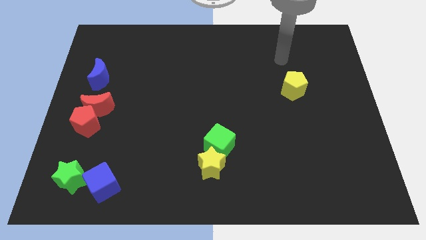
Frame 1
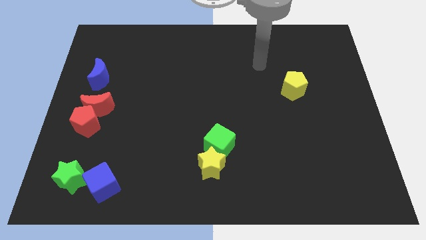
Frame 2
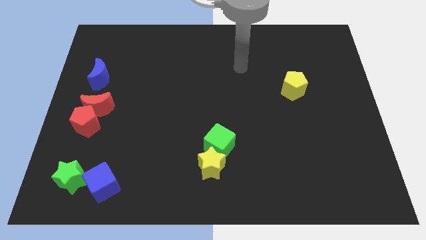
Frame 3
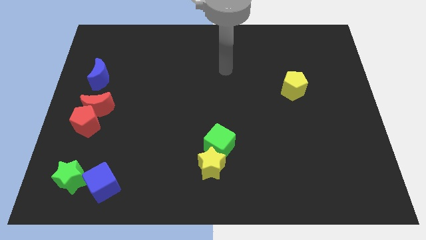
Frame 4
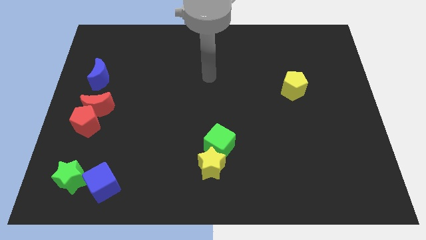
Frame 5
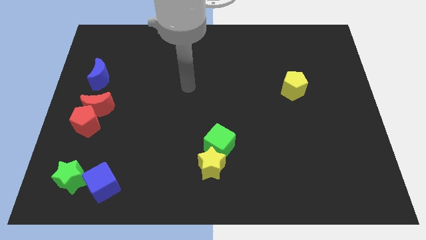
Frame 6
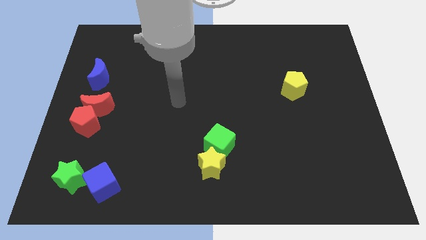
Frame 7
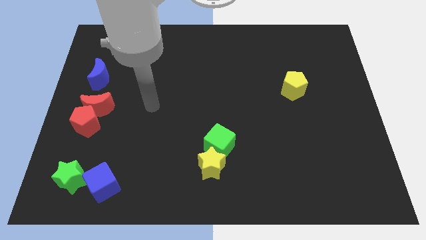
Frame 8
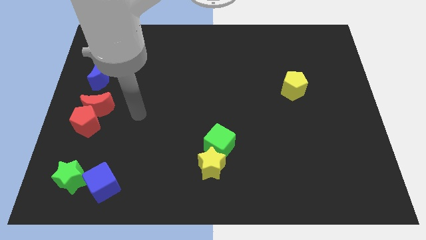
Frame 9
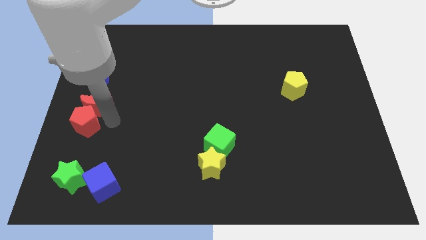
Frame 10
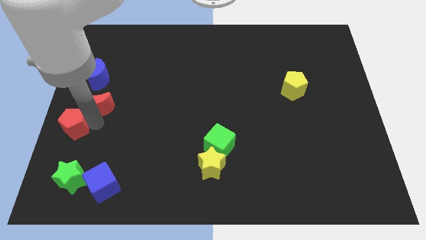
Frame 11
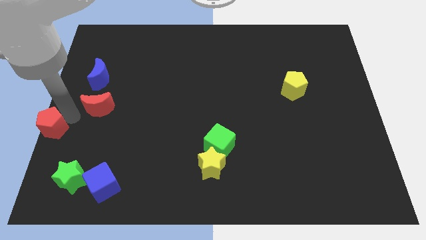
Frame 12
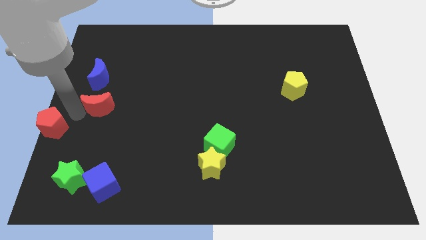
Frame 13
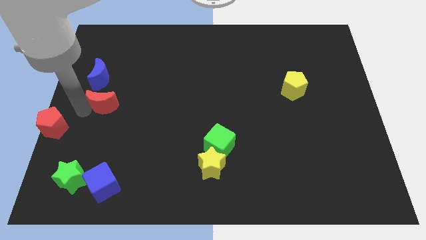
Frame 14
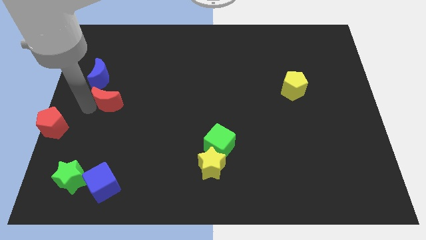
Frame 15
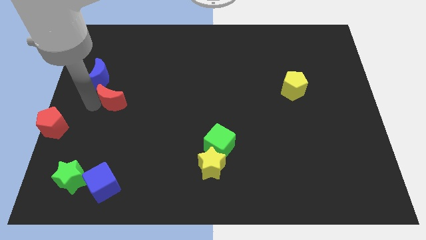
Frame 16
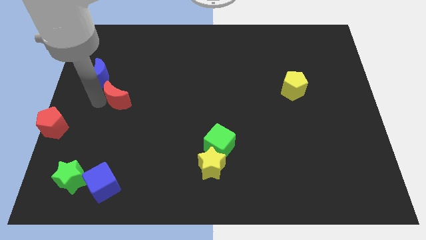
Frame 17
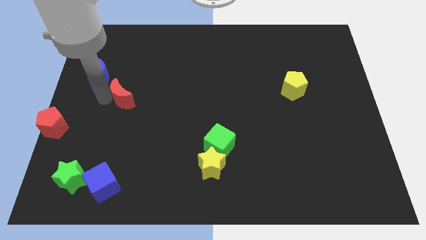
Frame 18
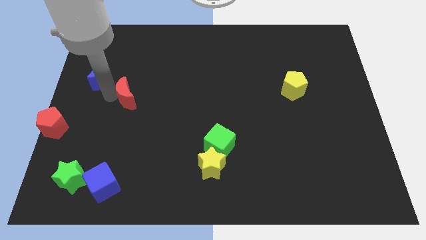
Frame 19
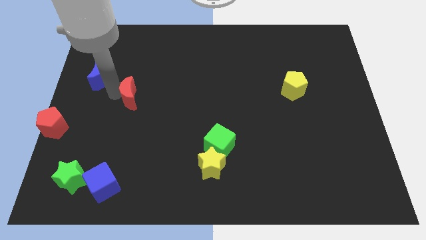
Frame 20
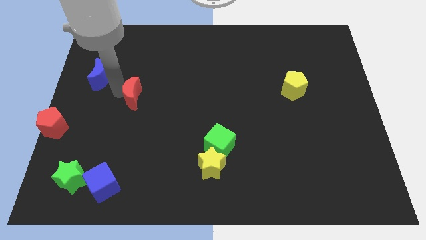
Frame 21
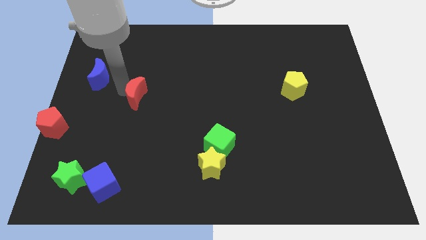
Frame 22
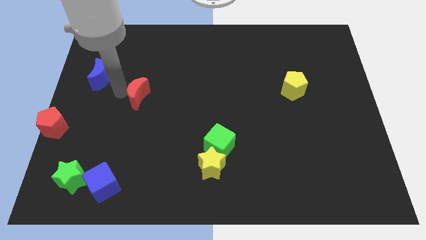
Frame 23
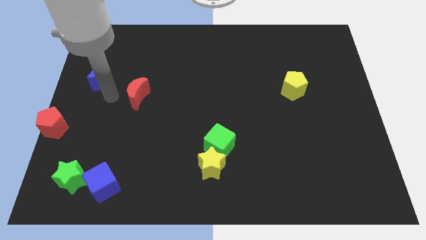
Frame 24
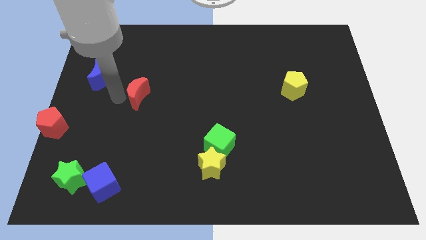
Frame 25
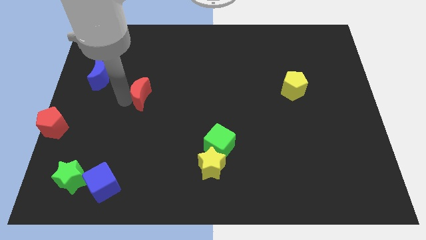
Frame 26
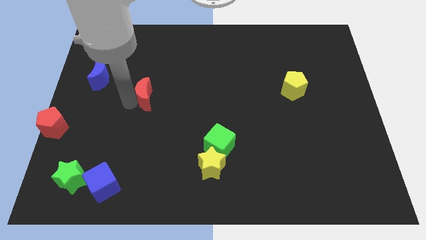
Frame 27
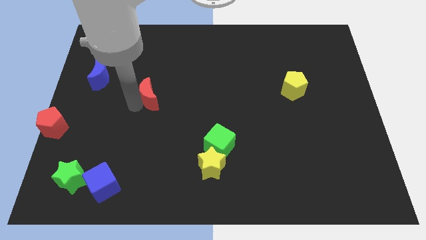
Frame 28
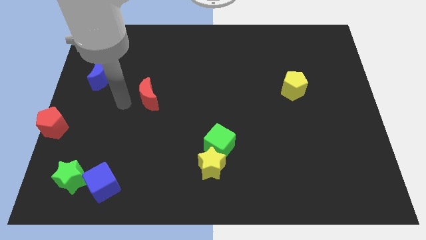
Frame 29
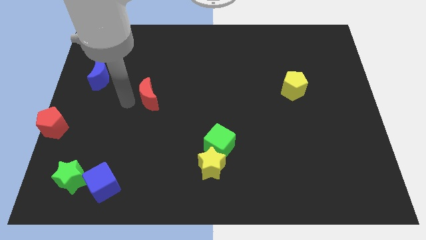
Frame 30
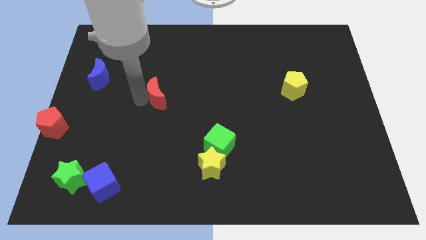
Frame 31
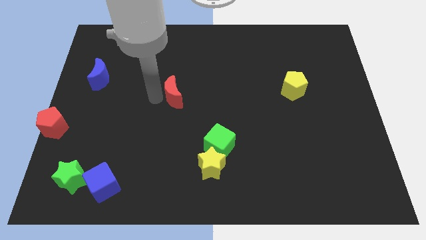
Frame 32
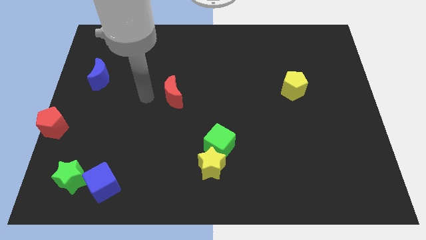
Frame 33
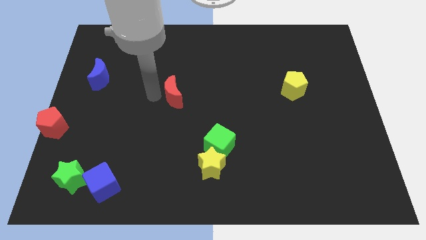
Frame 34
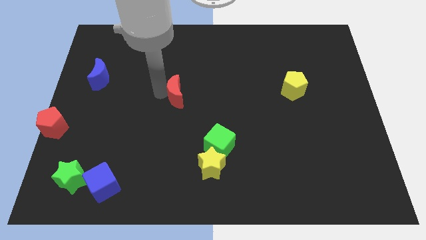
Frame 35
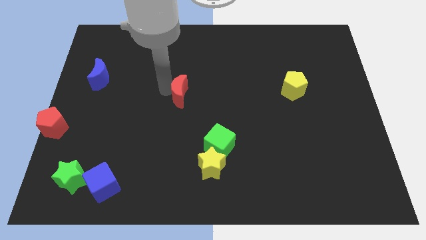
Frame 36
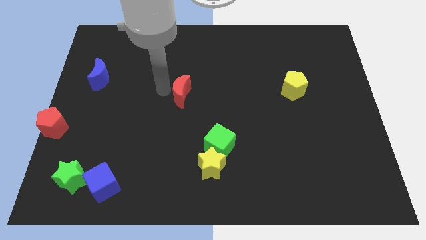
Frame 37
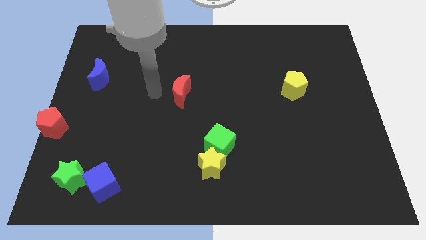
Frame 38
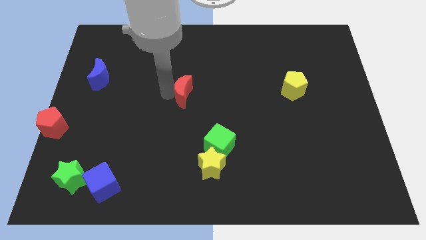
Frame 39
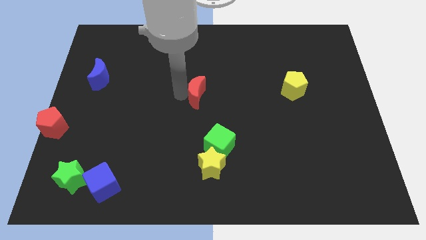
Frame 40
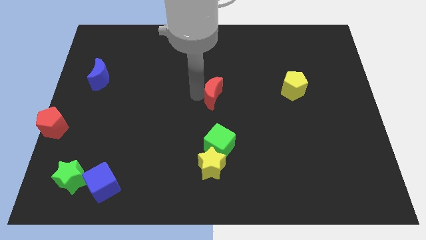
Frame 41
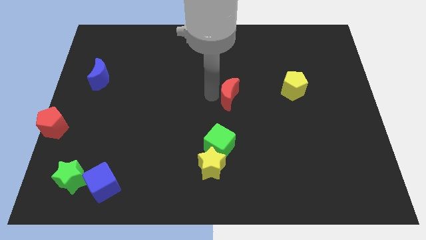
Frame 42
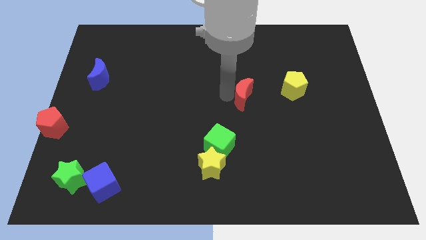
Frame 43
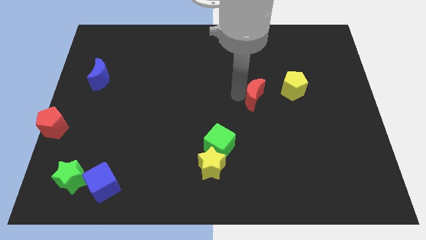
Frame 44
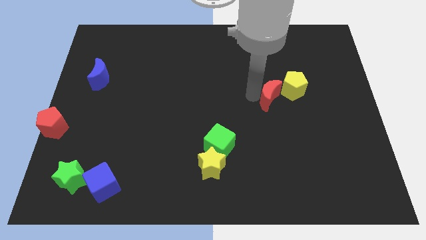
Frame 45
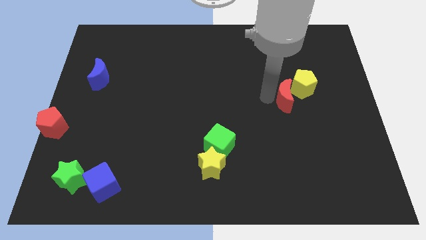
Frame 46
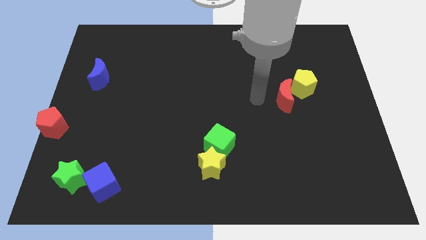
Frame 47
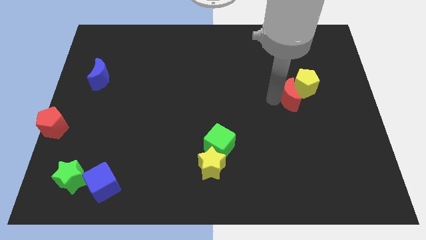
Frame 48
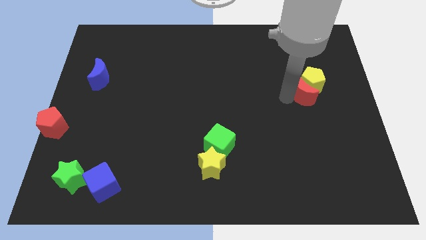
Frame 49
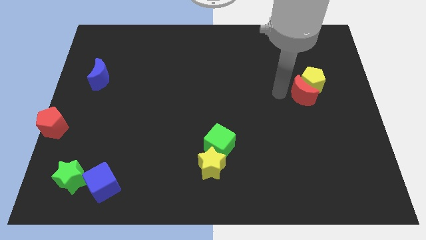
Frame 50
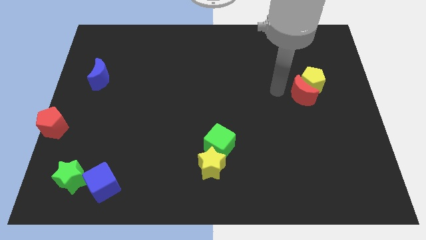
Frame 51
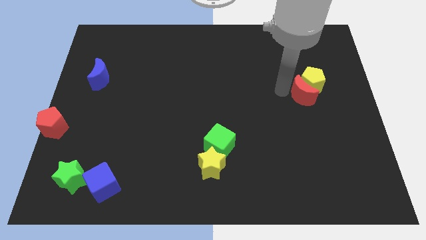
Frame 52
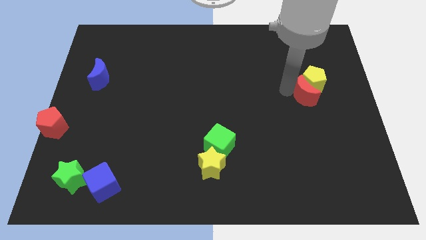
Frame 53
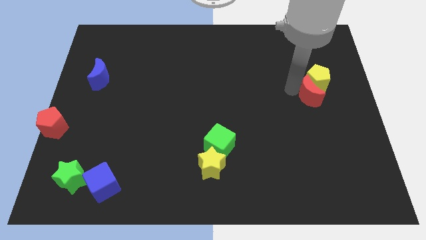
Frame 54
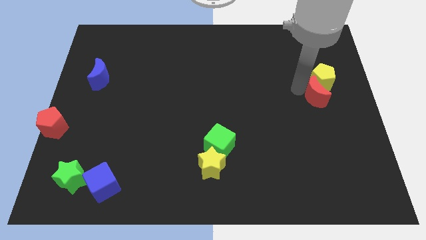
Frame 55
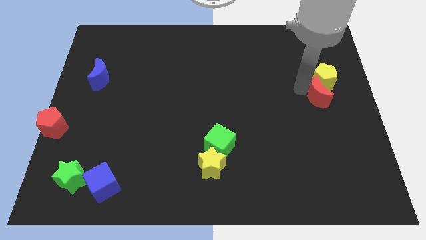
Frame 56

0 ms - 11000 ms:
push the red moon to the right side
